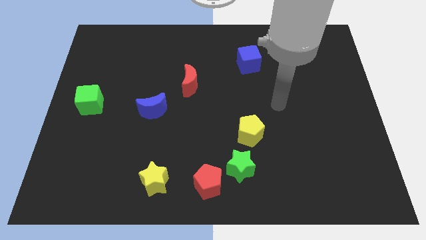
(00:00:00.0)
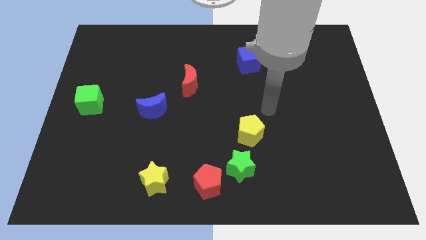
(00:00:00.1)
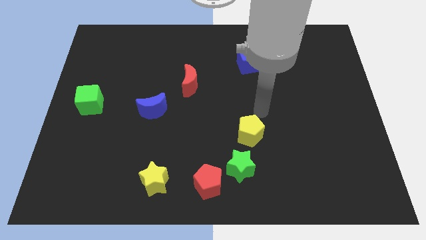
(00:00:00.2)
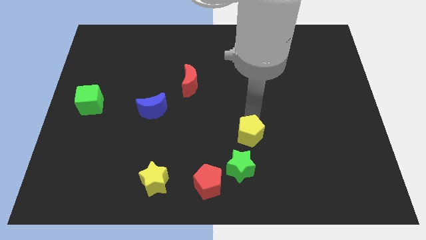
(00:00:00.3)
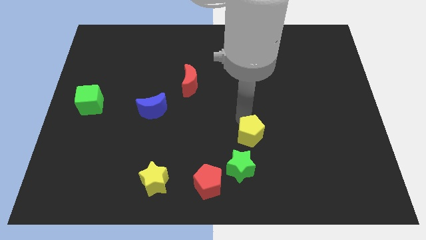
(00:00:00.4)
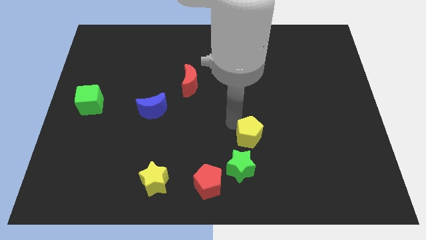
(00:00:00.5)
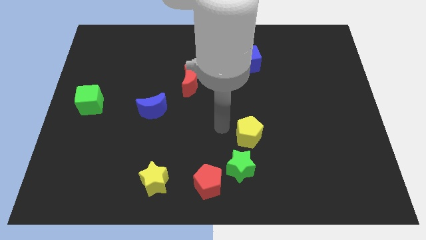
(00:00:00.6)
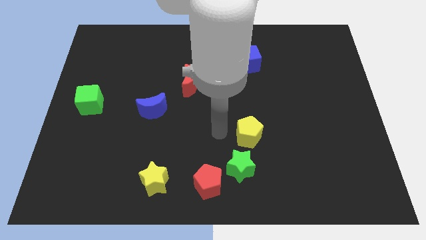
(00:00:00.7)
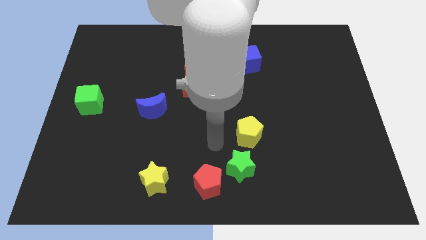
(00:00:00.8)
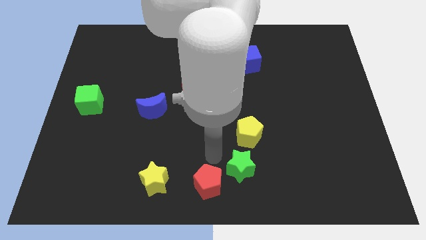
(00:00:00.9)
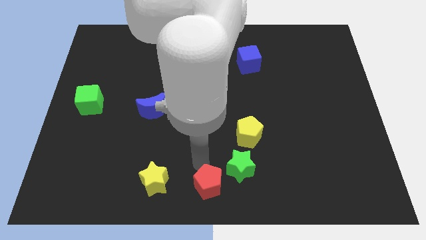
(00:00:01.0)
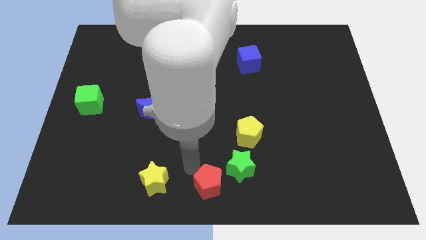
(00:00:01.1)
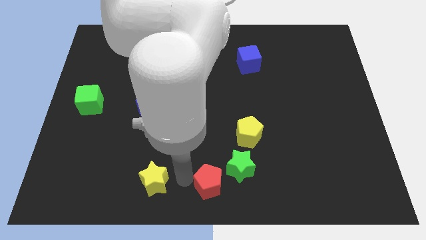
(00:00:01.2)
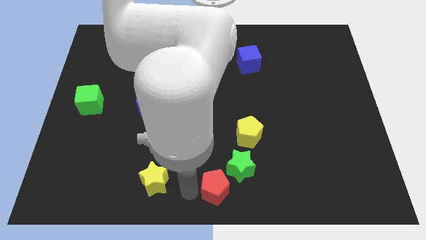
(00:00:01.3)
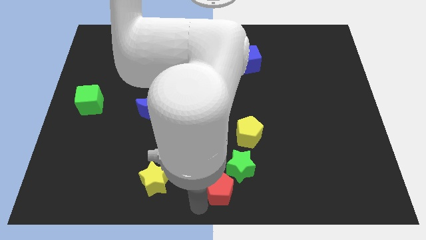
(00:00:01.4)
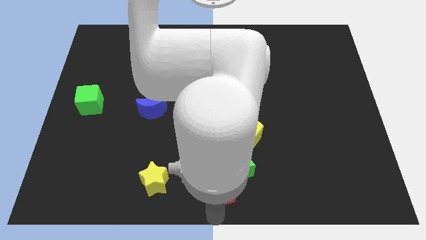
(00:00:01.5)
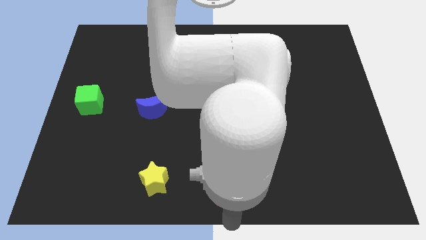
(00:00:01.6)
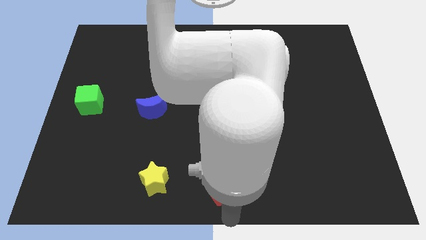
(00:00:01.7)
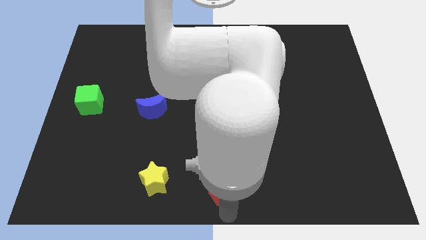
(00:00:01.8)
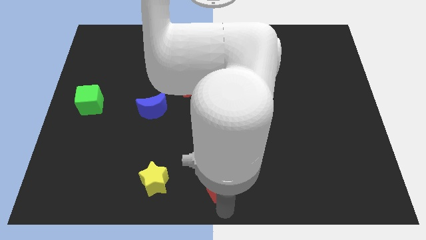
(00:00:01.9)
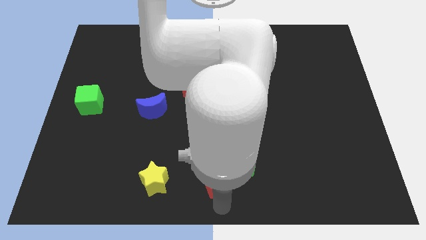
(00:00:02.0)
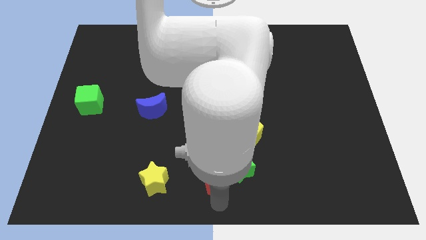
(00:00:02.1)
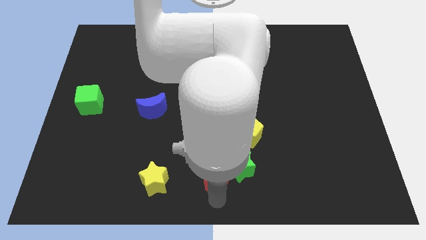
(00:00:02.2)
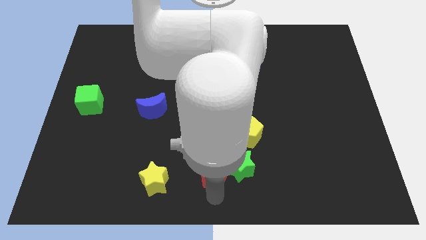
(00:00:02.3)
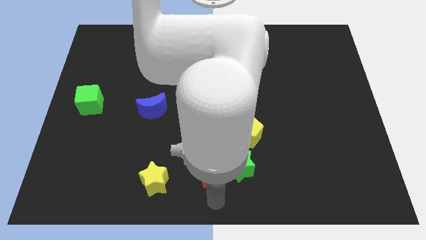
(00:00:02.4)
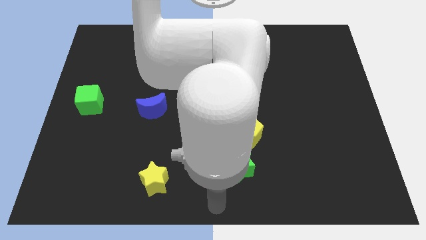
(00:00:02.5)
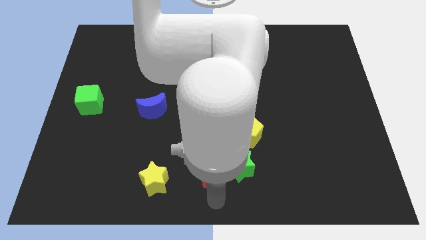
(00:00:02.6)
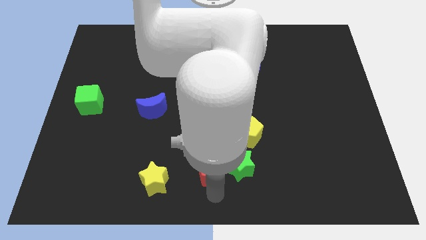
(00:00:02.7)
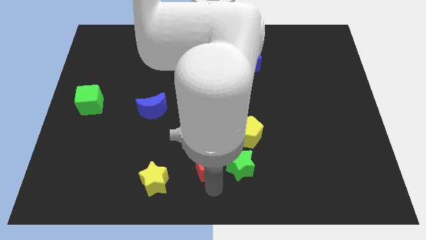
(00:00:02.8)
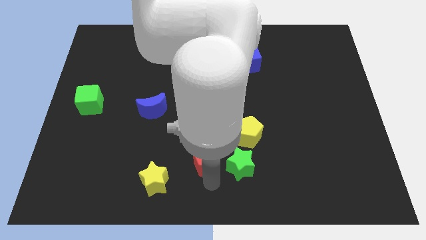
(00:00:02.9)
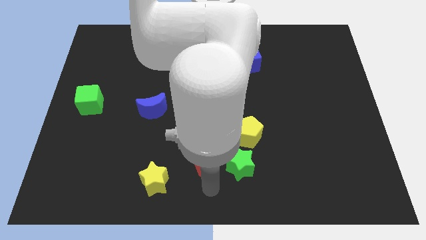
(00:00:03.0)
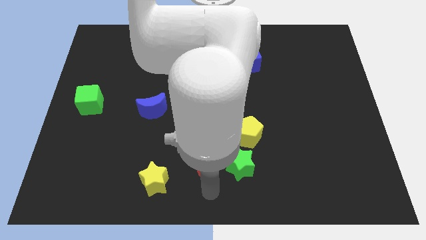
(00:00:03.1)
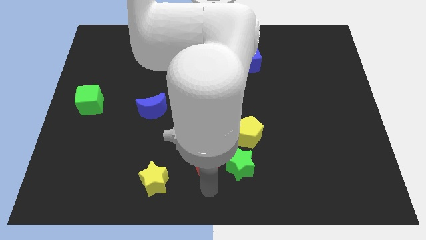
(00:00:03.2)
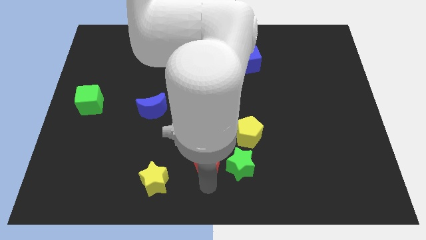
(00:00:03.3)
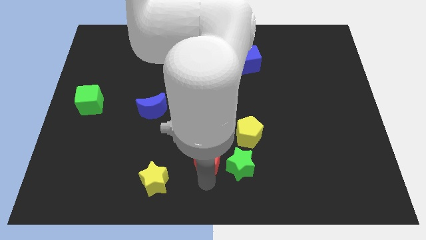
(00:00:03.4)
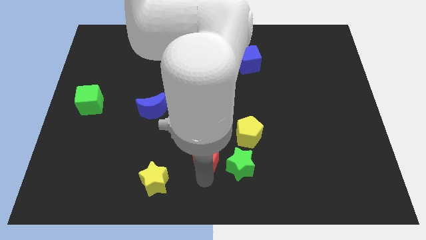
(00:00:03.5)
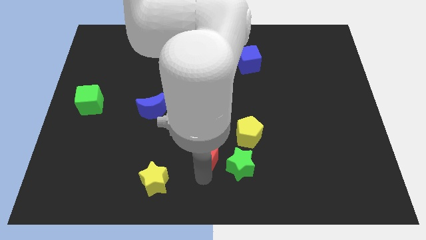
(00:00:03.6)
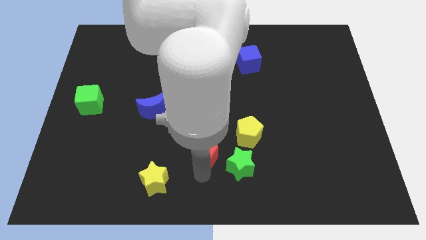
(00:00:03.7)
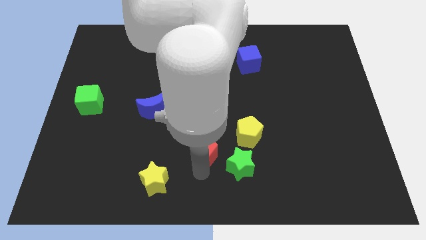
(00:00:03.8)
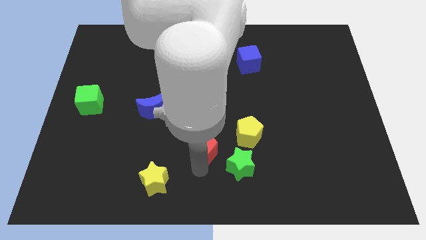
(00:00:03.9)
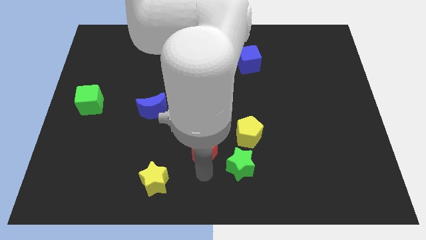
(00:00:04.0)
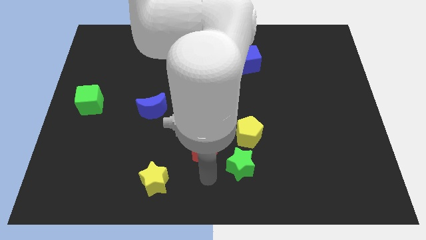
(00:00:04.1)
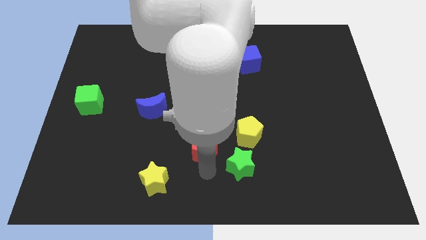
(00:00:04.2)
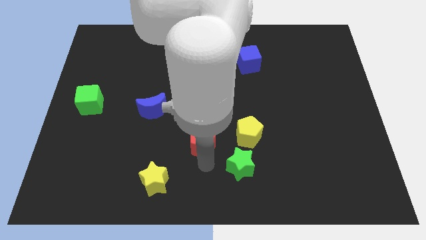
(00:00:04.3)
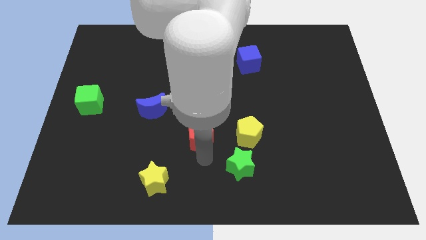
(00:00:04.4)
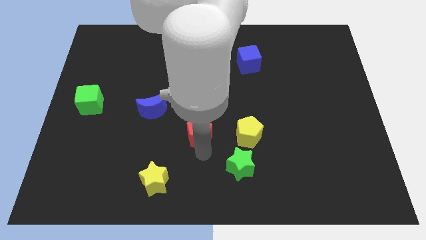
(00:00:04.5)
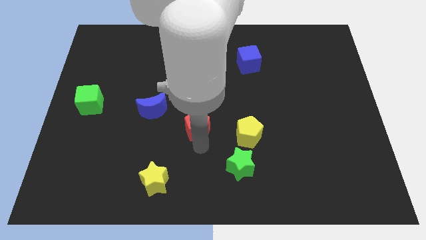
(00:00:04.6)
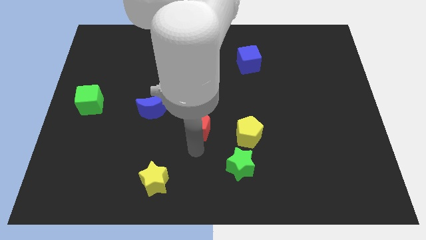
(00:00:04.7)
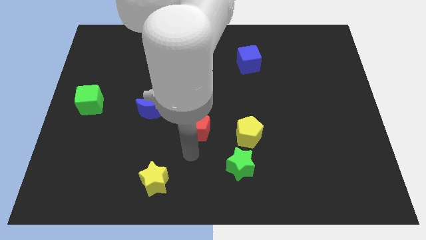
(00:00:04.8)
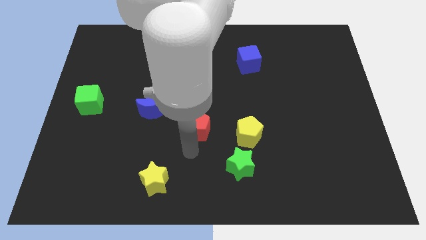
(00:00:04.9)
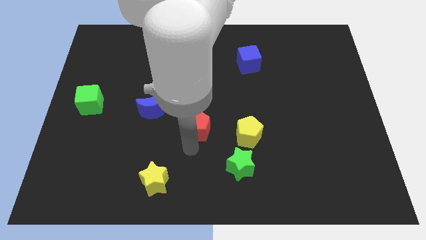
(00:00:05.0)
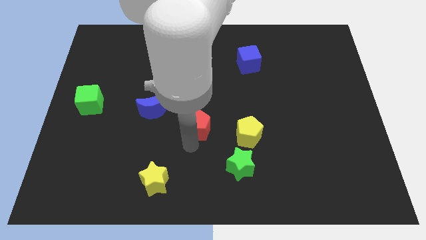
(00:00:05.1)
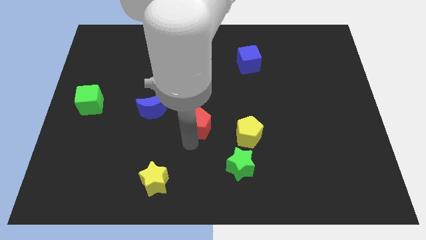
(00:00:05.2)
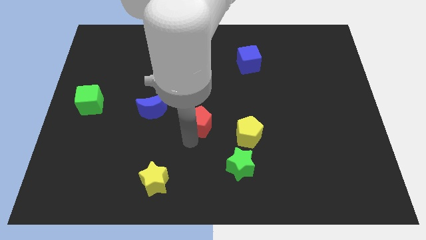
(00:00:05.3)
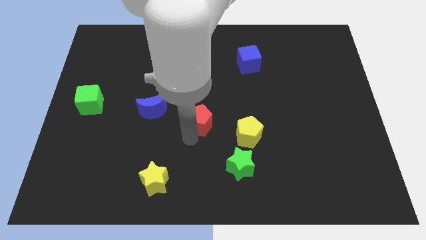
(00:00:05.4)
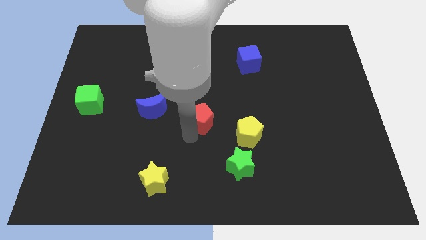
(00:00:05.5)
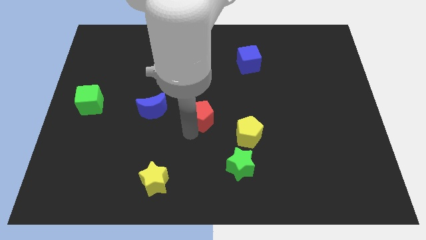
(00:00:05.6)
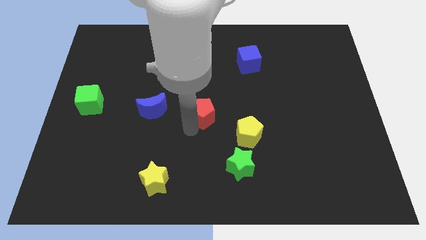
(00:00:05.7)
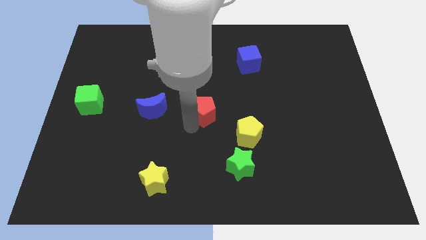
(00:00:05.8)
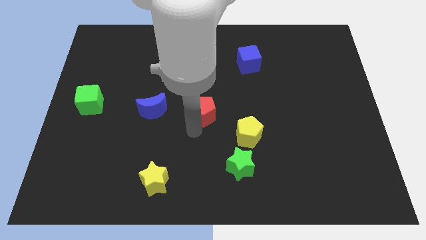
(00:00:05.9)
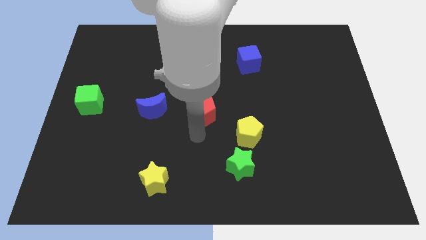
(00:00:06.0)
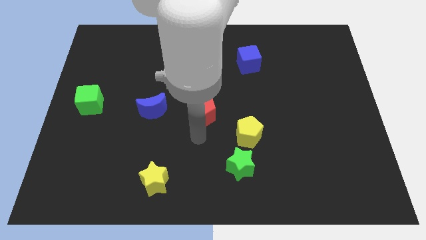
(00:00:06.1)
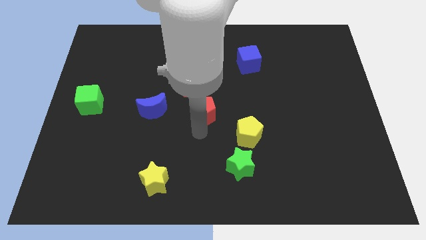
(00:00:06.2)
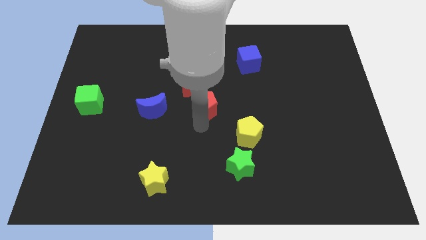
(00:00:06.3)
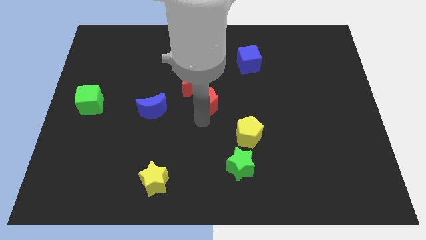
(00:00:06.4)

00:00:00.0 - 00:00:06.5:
slide the red pentagon upwards

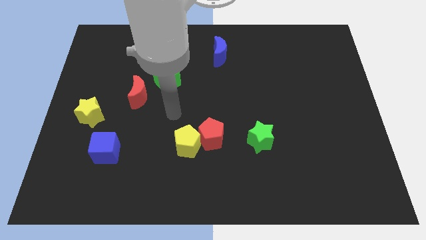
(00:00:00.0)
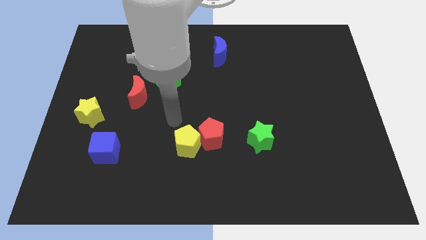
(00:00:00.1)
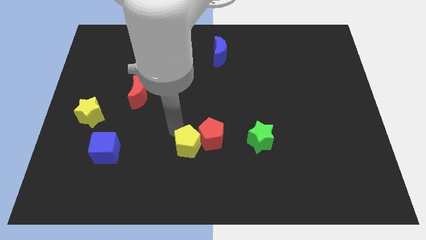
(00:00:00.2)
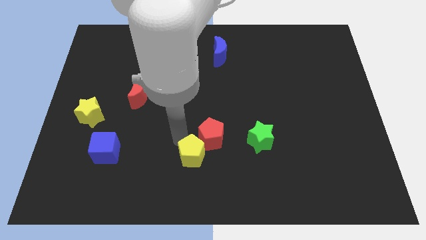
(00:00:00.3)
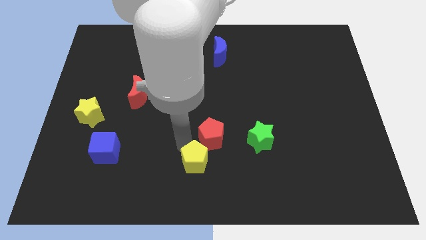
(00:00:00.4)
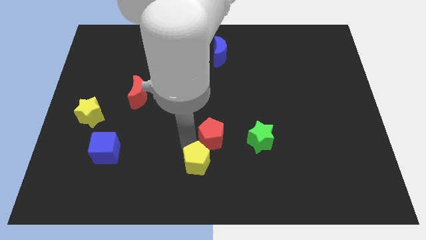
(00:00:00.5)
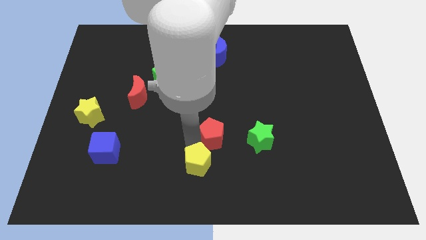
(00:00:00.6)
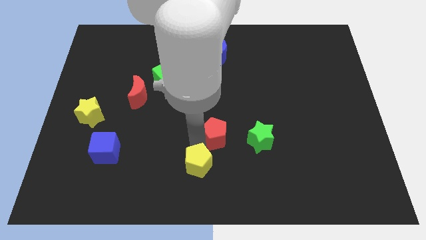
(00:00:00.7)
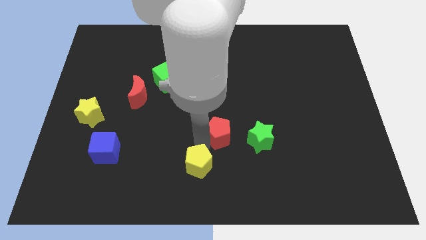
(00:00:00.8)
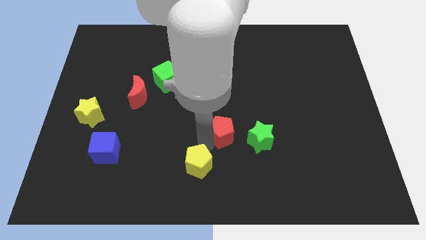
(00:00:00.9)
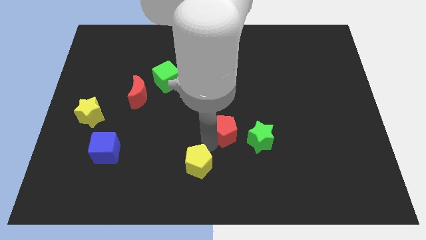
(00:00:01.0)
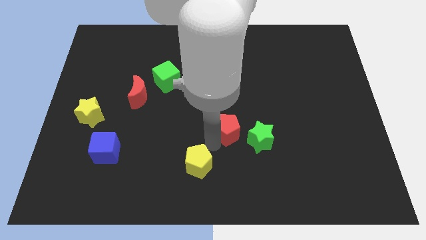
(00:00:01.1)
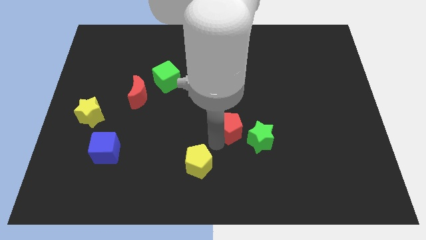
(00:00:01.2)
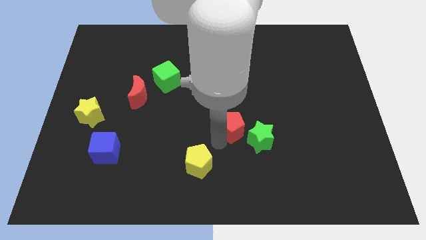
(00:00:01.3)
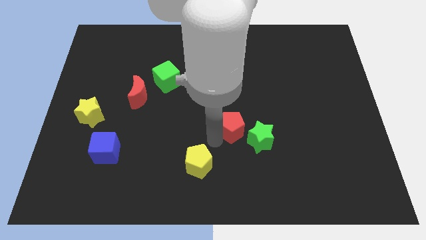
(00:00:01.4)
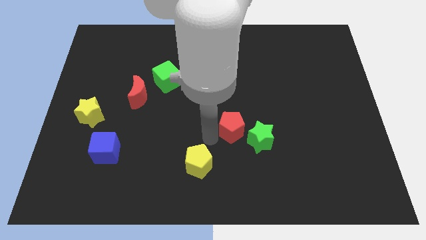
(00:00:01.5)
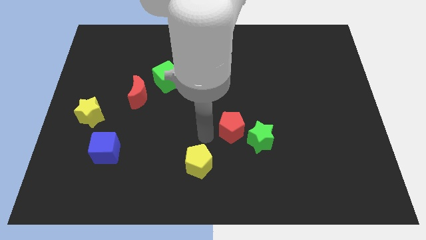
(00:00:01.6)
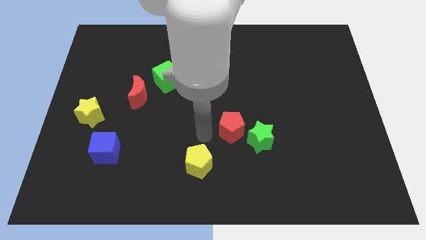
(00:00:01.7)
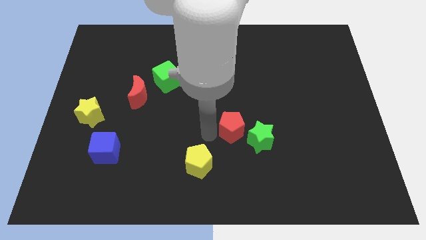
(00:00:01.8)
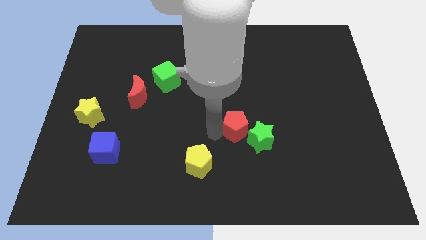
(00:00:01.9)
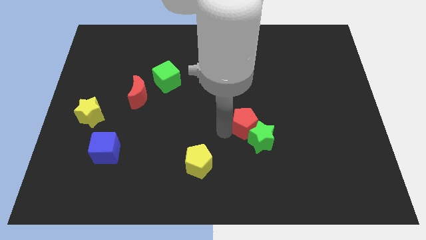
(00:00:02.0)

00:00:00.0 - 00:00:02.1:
slightly slide the red pentagon to the right
